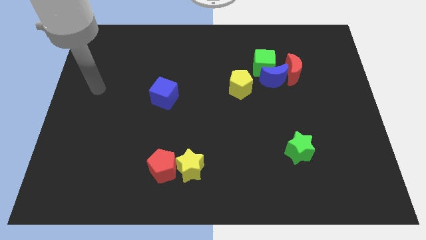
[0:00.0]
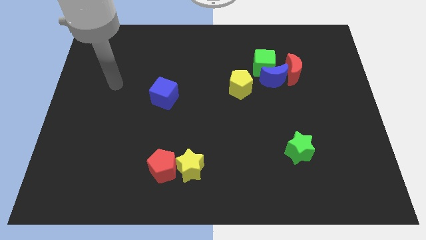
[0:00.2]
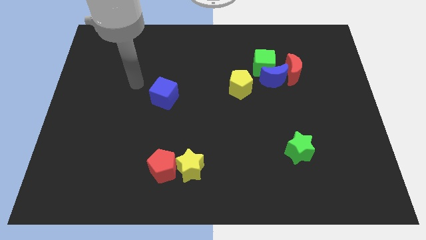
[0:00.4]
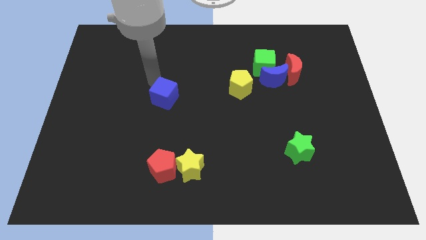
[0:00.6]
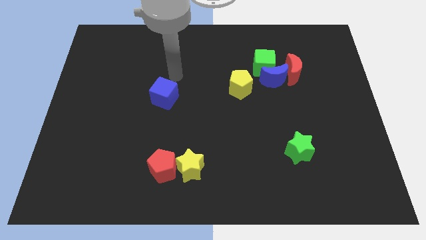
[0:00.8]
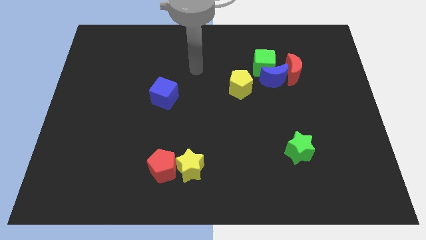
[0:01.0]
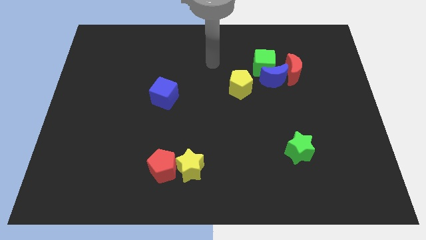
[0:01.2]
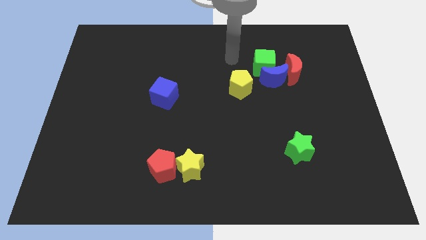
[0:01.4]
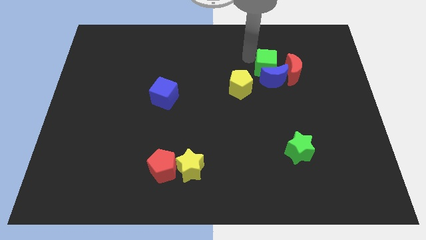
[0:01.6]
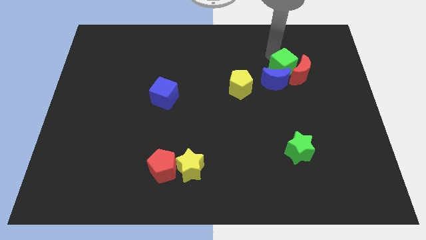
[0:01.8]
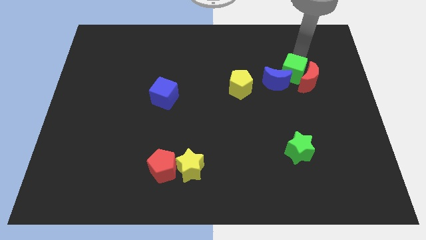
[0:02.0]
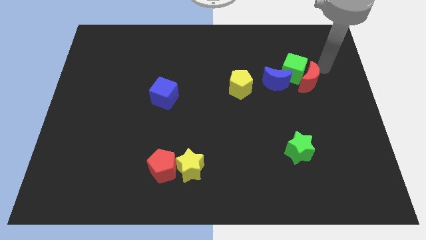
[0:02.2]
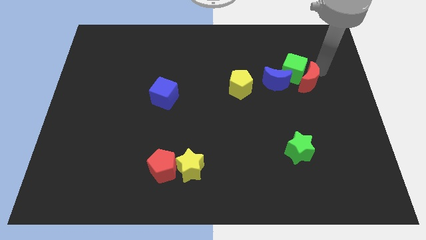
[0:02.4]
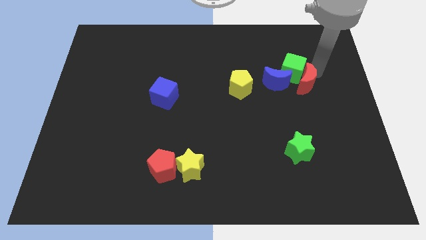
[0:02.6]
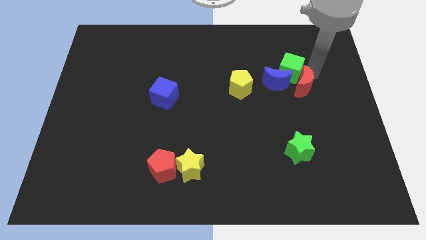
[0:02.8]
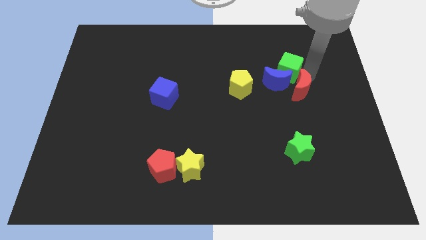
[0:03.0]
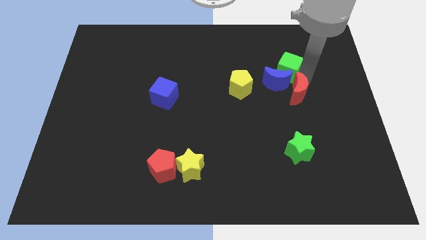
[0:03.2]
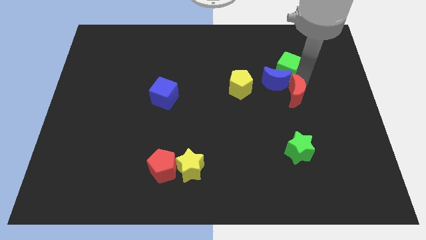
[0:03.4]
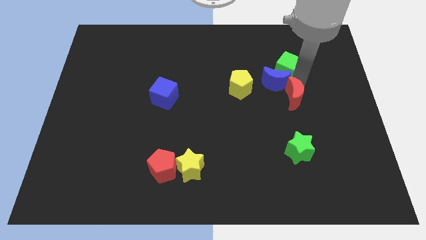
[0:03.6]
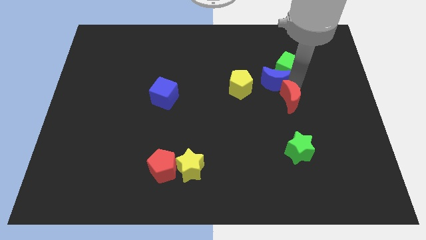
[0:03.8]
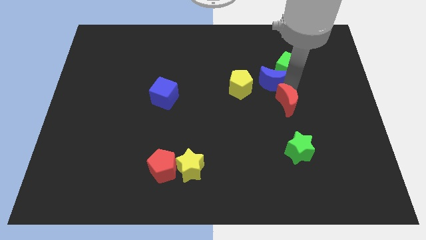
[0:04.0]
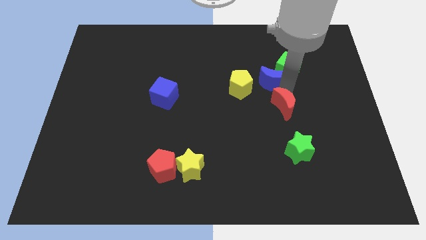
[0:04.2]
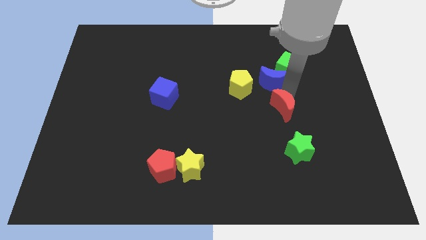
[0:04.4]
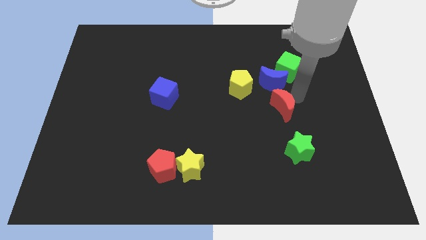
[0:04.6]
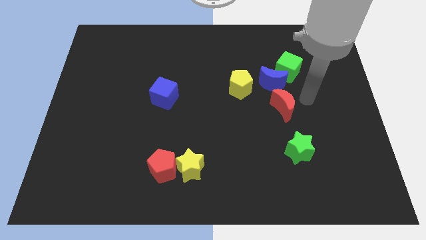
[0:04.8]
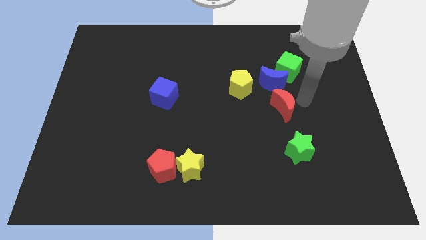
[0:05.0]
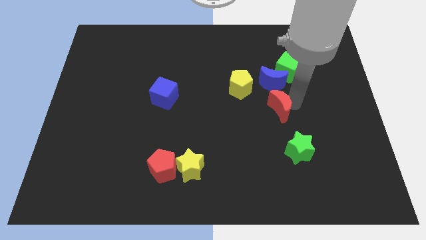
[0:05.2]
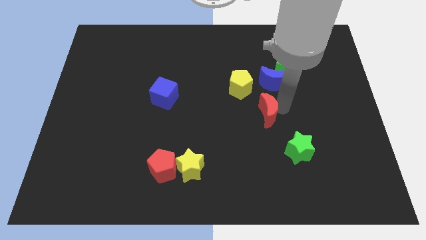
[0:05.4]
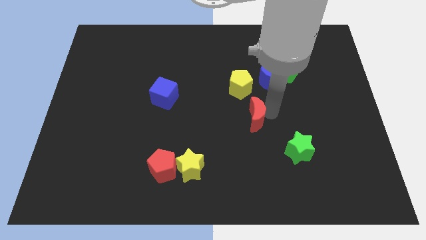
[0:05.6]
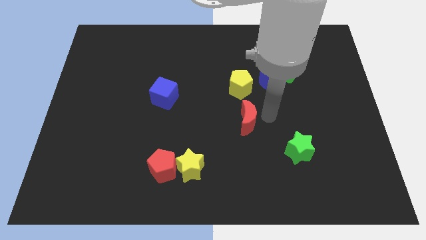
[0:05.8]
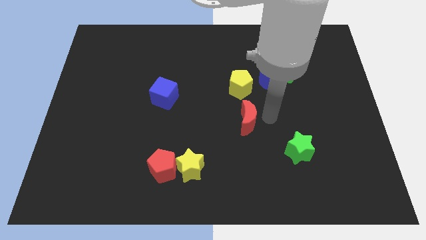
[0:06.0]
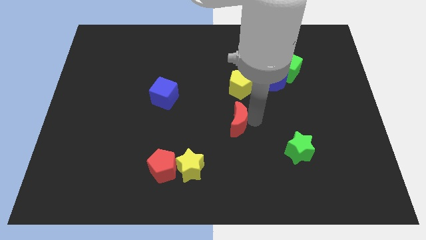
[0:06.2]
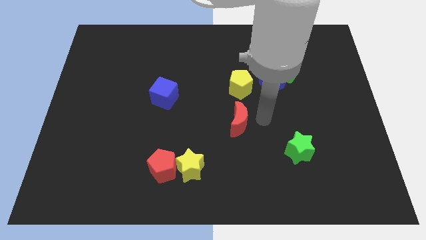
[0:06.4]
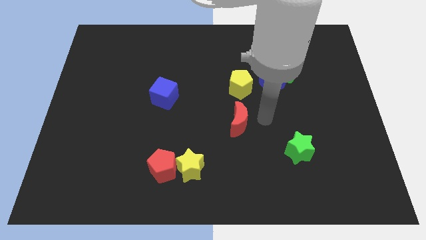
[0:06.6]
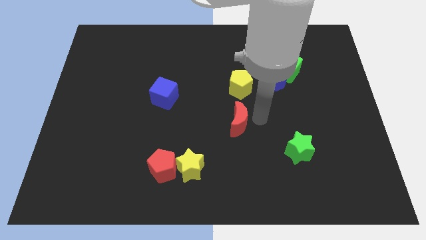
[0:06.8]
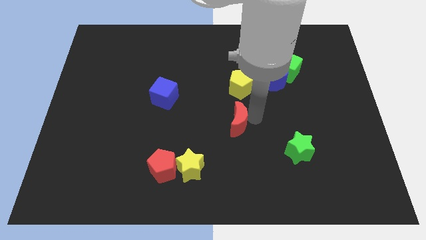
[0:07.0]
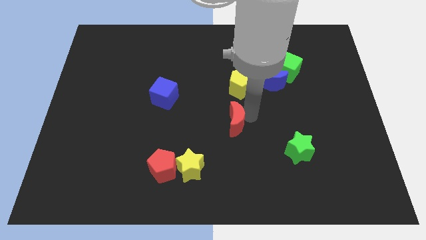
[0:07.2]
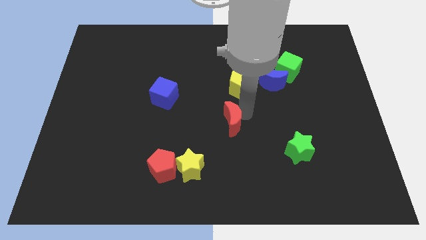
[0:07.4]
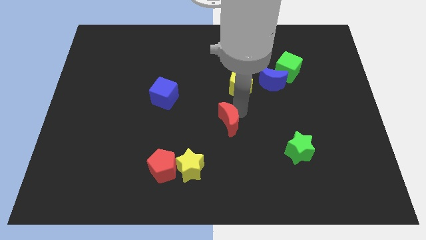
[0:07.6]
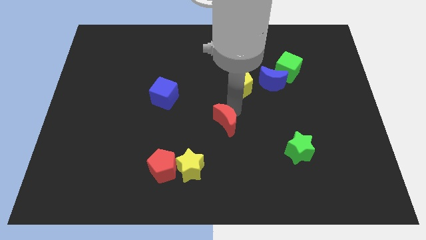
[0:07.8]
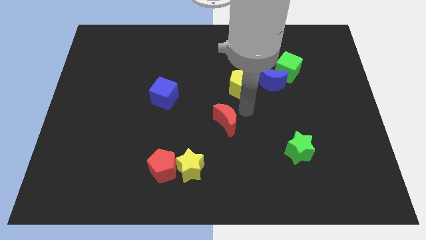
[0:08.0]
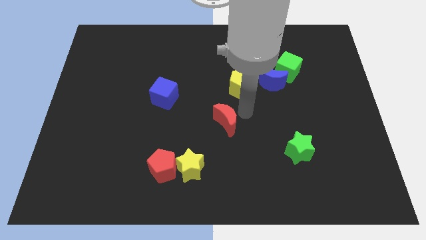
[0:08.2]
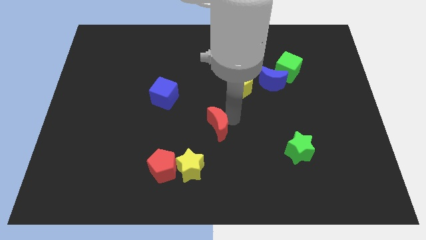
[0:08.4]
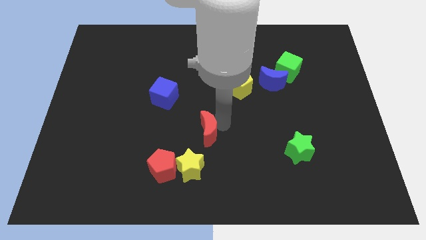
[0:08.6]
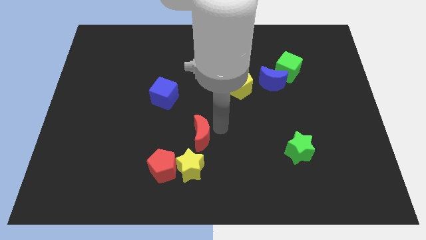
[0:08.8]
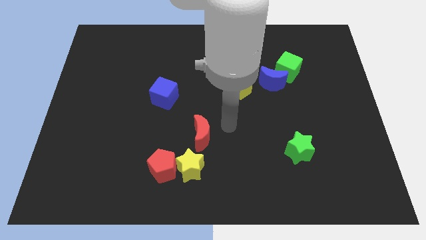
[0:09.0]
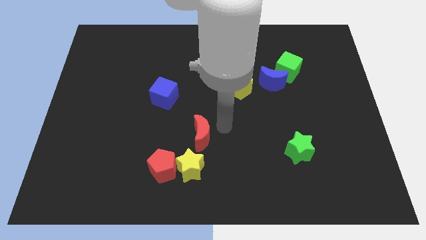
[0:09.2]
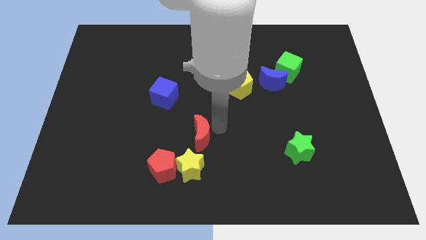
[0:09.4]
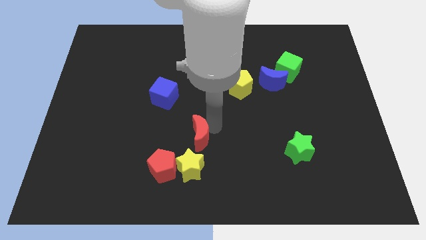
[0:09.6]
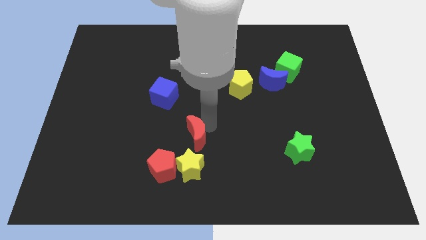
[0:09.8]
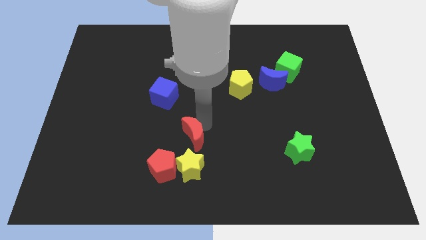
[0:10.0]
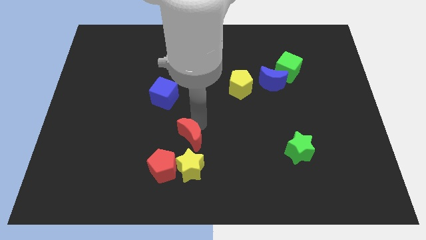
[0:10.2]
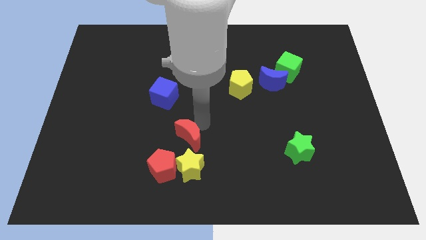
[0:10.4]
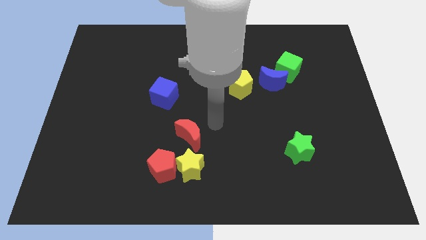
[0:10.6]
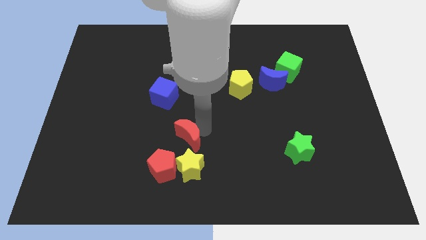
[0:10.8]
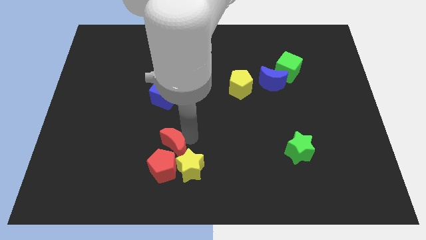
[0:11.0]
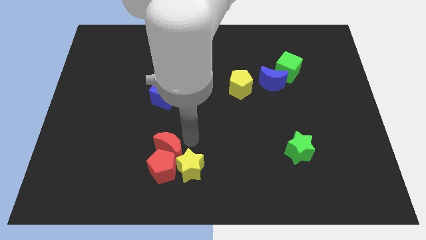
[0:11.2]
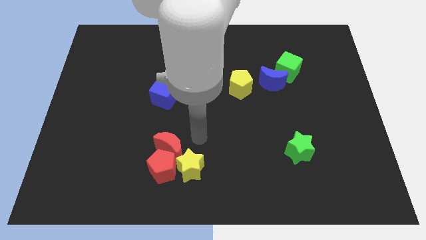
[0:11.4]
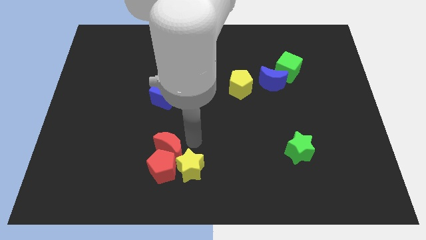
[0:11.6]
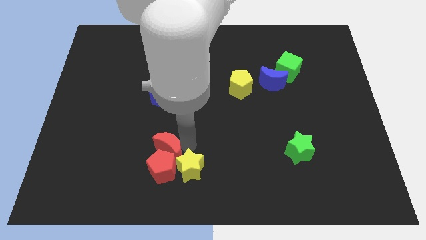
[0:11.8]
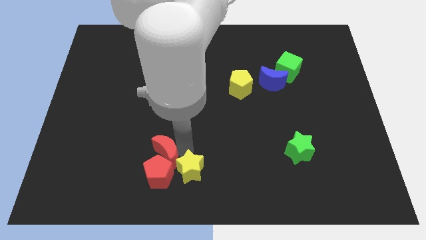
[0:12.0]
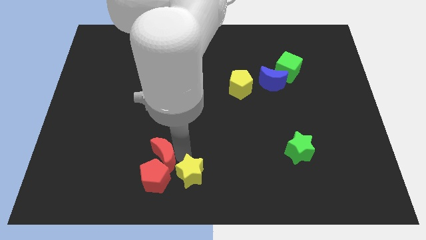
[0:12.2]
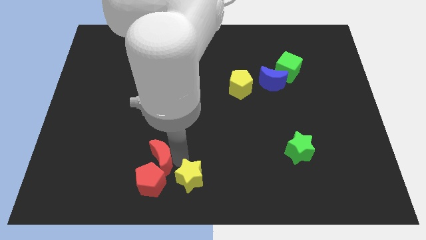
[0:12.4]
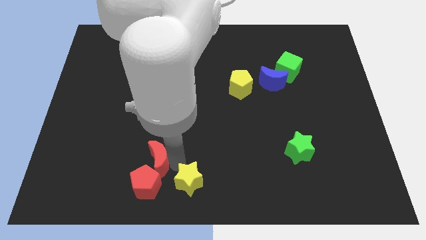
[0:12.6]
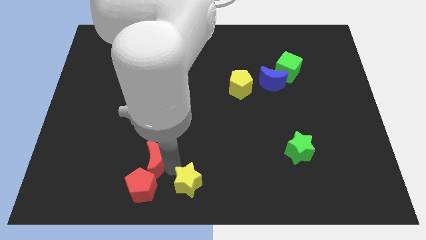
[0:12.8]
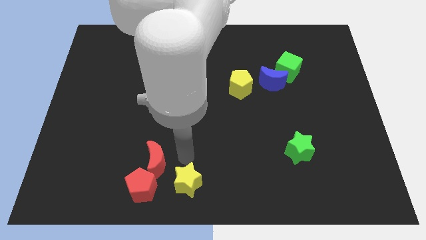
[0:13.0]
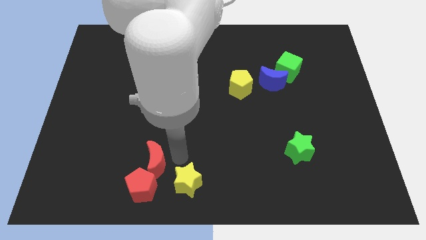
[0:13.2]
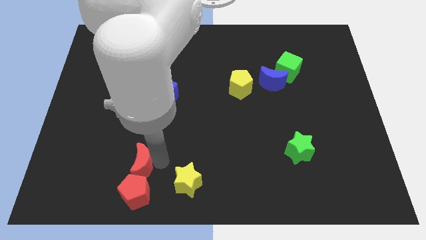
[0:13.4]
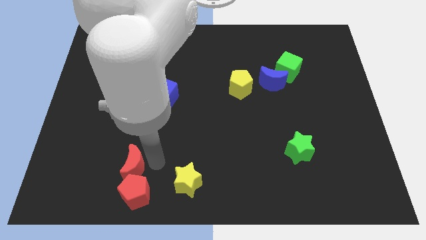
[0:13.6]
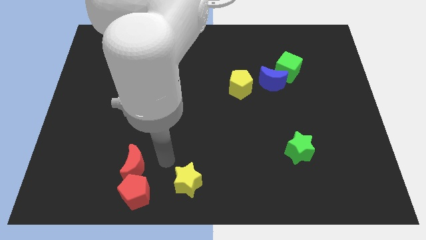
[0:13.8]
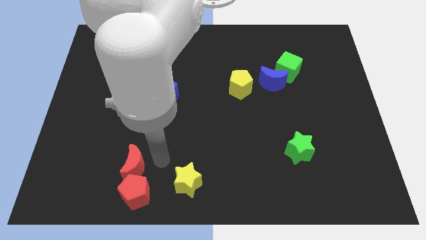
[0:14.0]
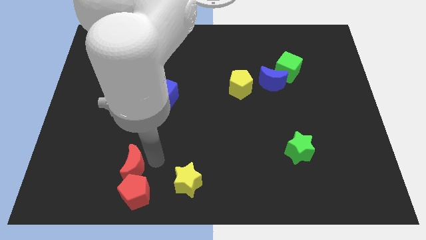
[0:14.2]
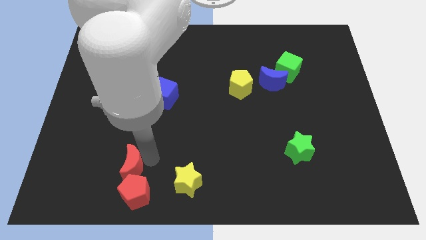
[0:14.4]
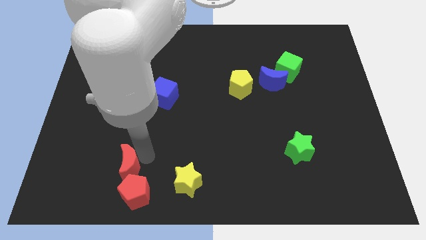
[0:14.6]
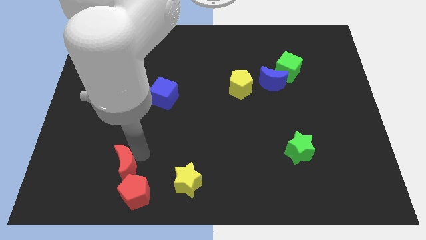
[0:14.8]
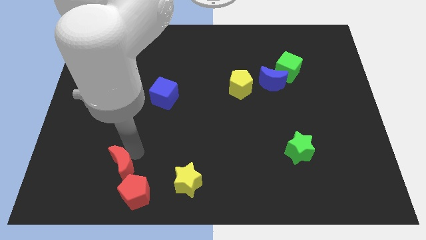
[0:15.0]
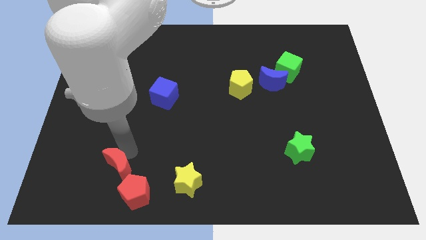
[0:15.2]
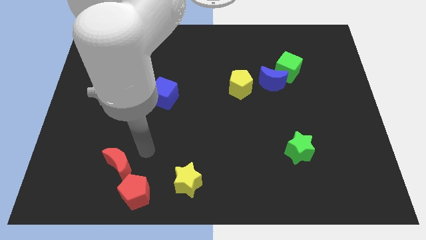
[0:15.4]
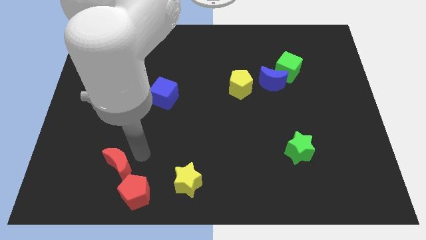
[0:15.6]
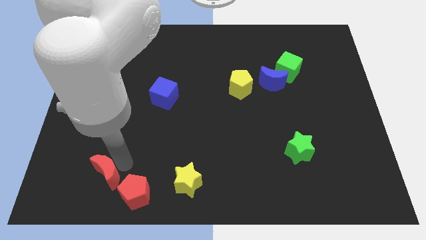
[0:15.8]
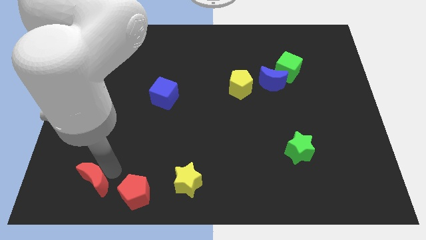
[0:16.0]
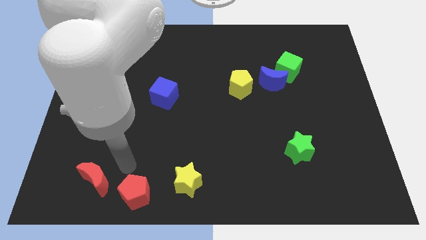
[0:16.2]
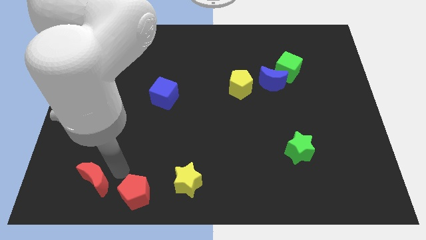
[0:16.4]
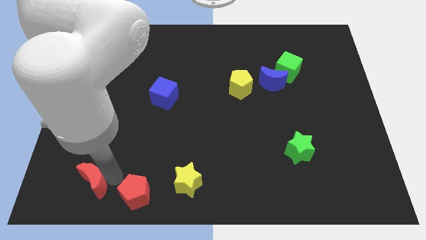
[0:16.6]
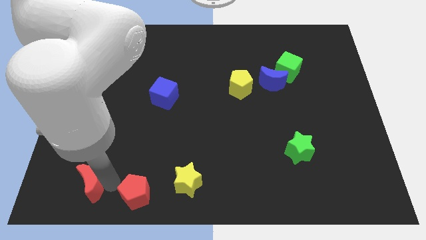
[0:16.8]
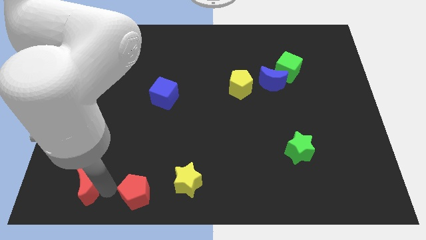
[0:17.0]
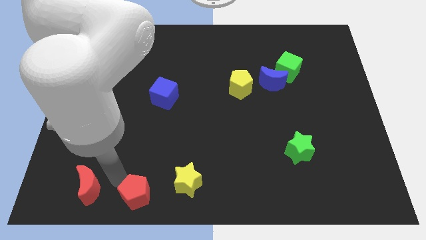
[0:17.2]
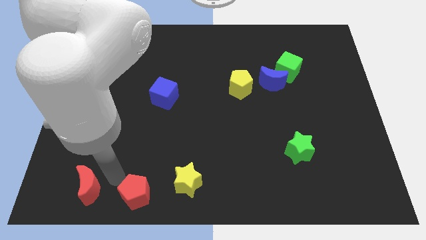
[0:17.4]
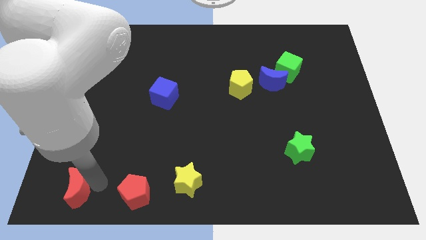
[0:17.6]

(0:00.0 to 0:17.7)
push the red moon to the bottom left
